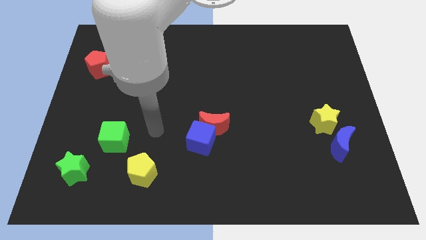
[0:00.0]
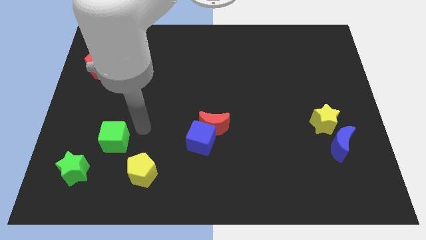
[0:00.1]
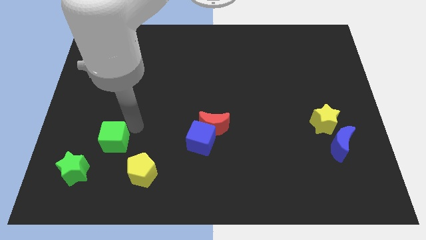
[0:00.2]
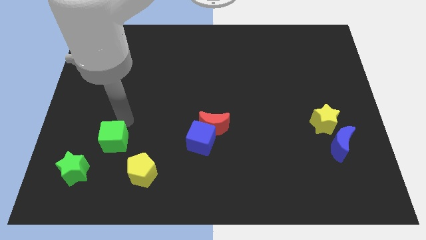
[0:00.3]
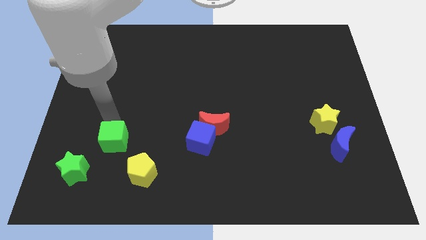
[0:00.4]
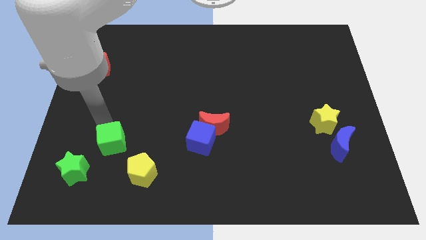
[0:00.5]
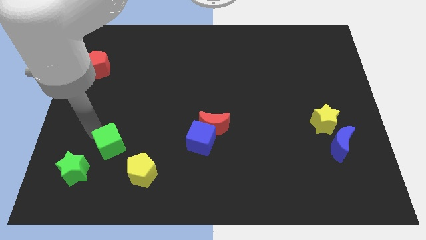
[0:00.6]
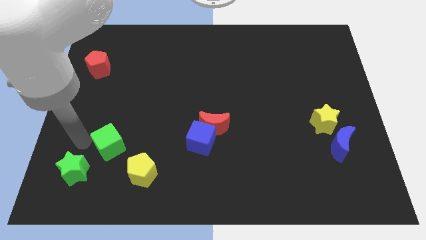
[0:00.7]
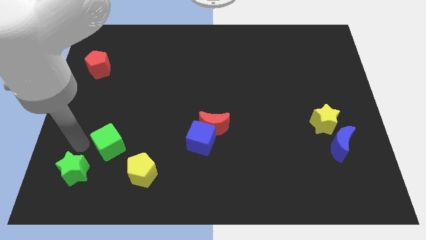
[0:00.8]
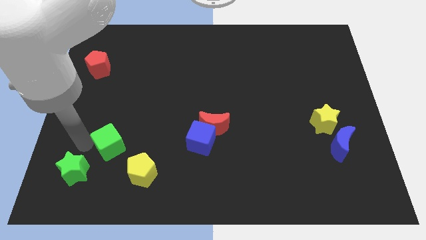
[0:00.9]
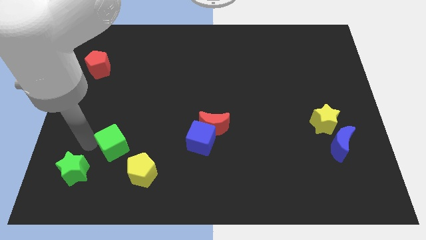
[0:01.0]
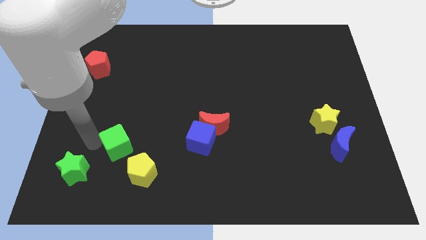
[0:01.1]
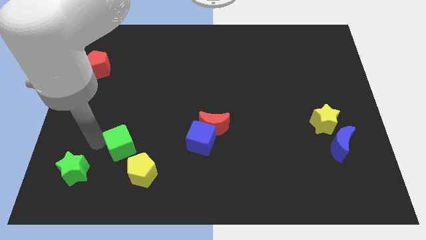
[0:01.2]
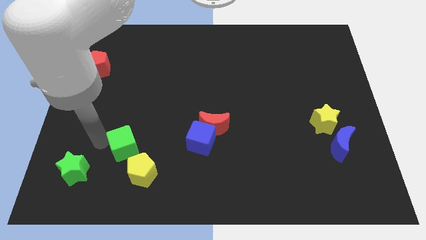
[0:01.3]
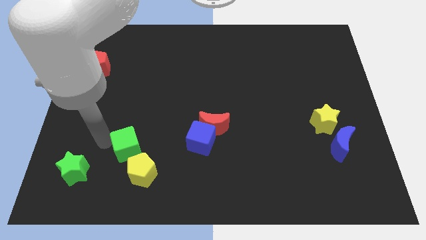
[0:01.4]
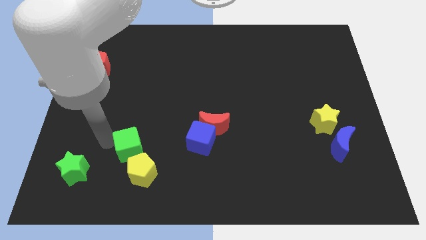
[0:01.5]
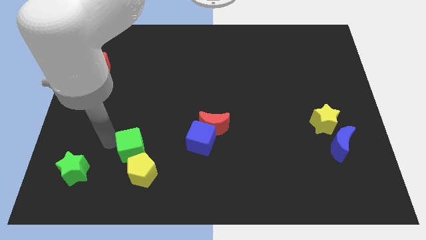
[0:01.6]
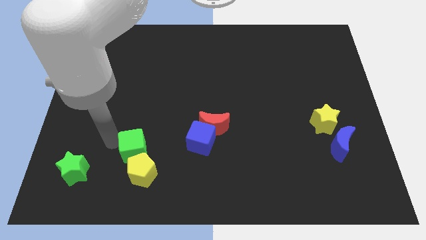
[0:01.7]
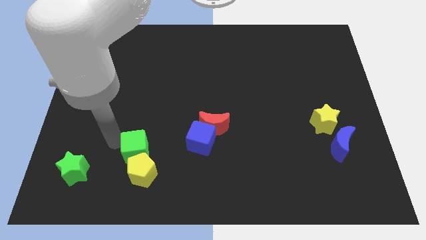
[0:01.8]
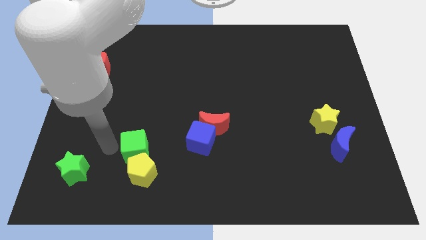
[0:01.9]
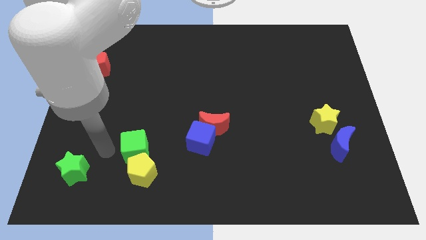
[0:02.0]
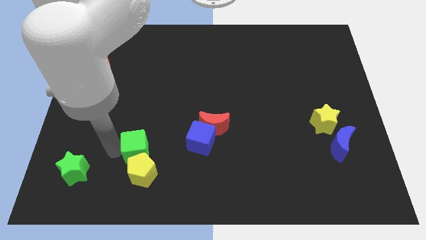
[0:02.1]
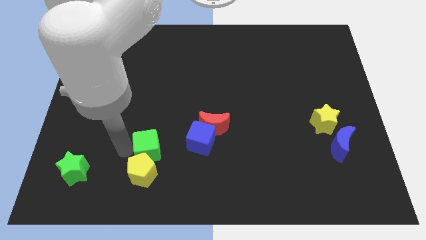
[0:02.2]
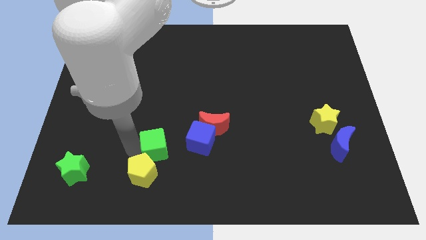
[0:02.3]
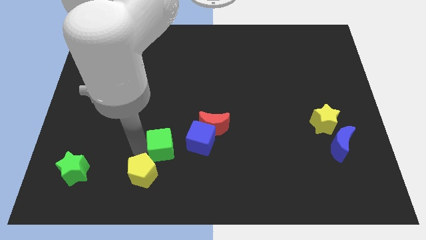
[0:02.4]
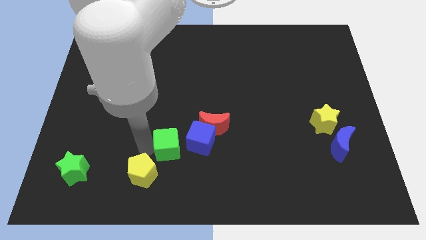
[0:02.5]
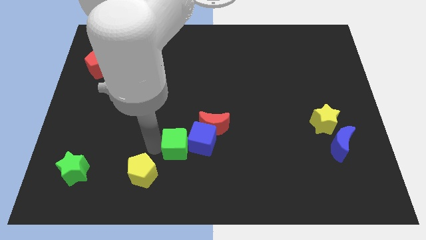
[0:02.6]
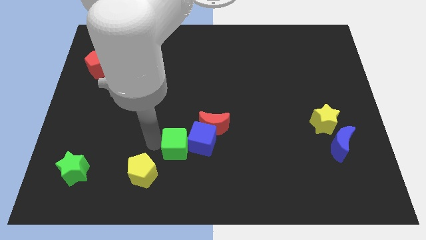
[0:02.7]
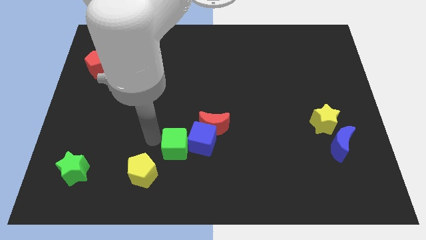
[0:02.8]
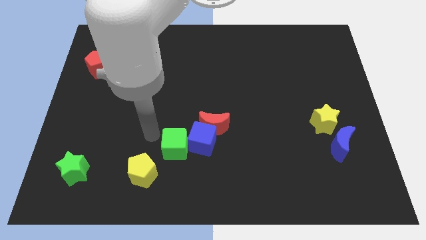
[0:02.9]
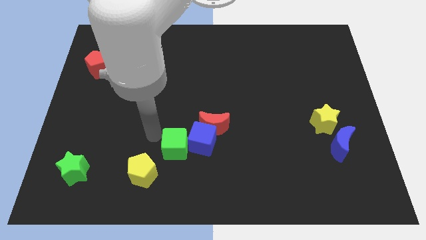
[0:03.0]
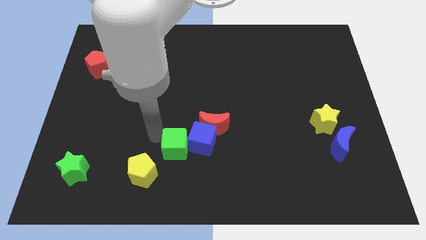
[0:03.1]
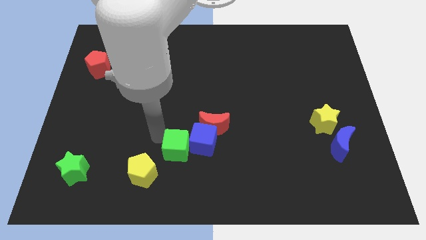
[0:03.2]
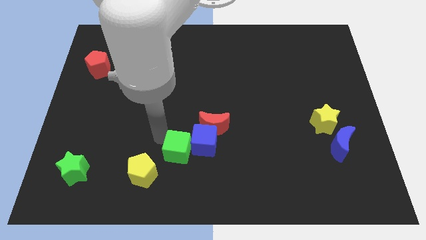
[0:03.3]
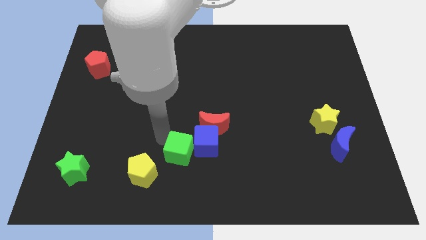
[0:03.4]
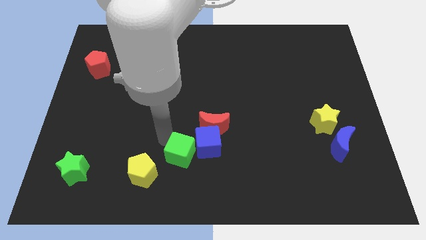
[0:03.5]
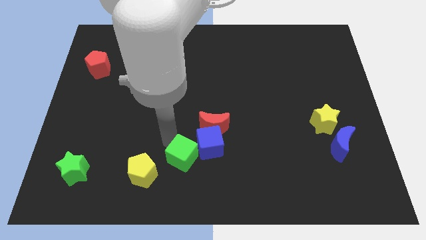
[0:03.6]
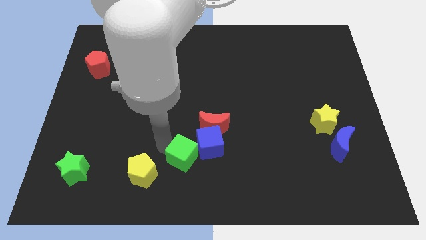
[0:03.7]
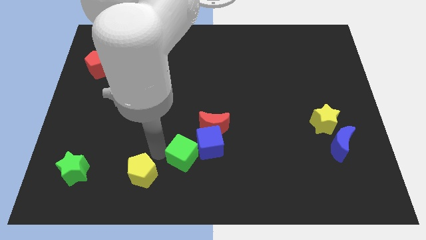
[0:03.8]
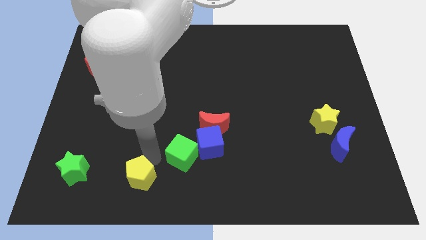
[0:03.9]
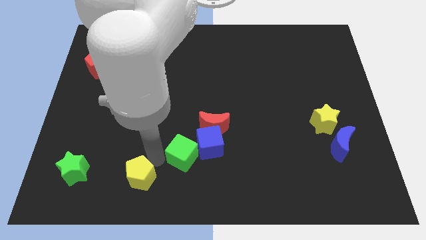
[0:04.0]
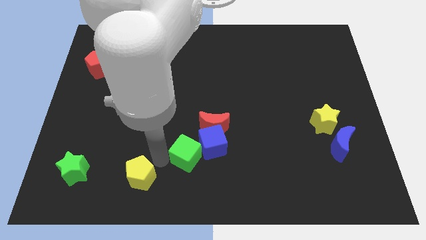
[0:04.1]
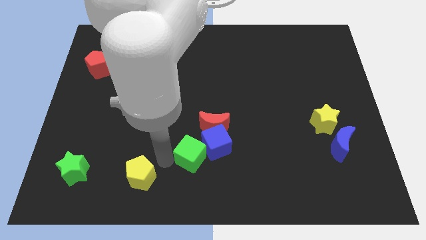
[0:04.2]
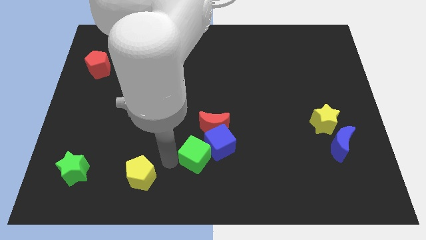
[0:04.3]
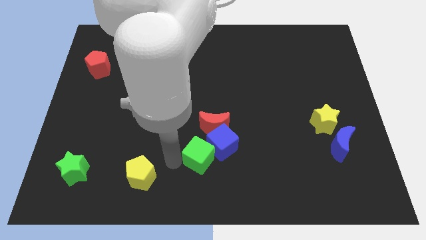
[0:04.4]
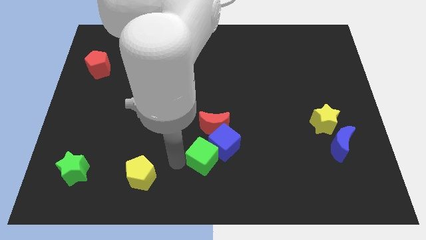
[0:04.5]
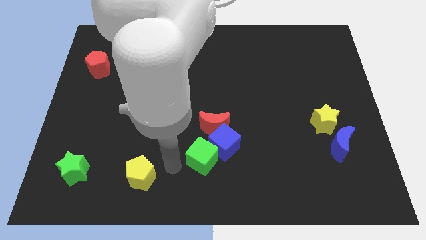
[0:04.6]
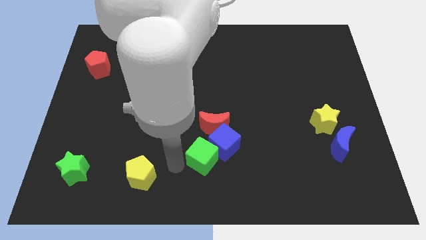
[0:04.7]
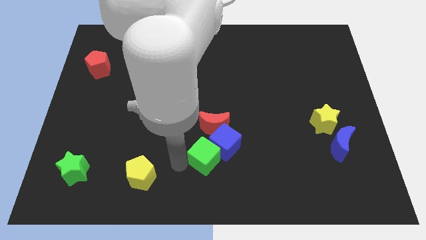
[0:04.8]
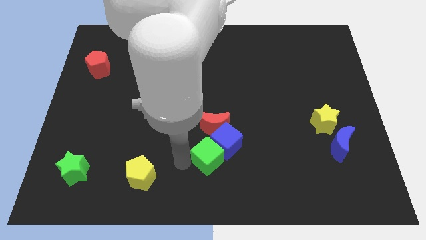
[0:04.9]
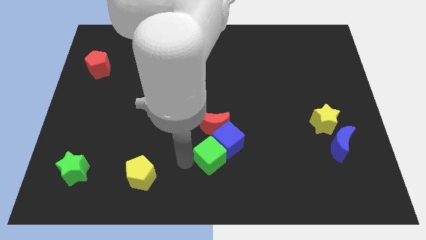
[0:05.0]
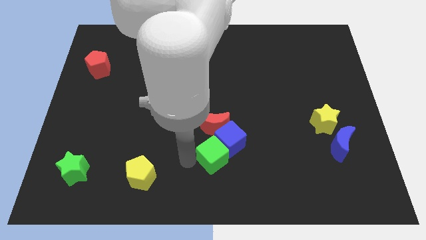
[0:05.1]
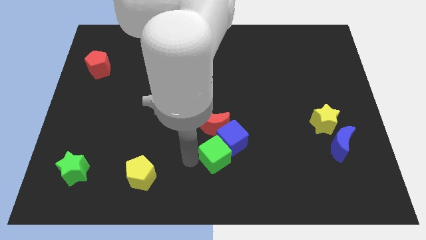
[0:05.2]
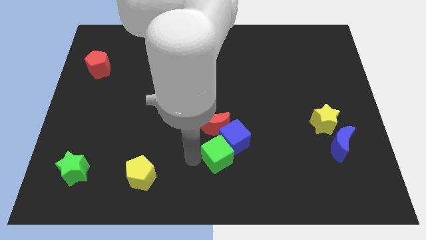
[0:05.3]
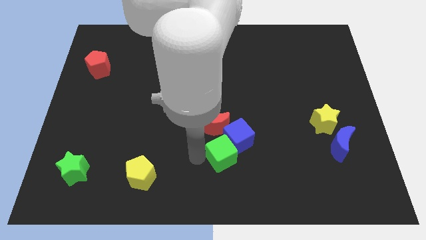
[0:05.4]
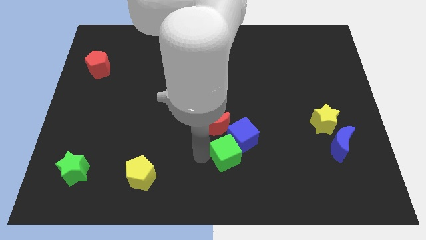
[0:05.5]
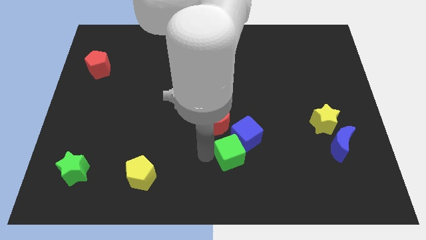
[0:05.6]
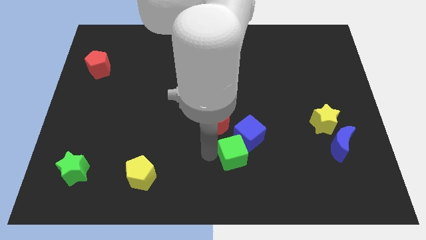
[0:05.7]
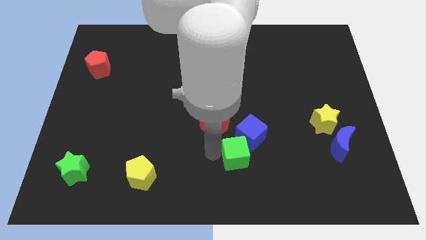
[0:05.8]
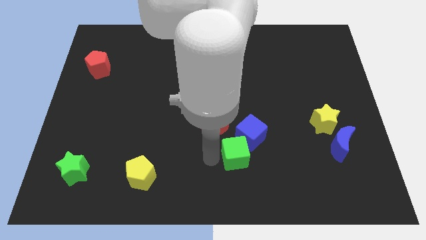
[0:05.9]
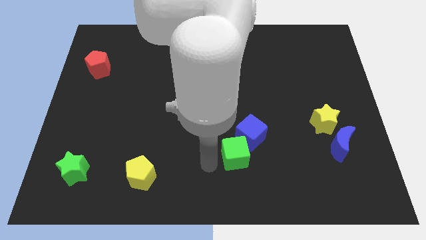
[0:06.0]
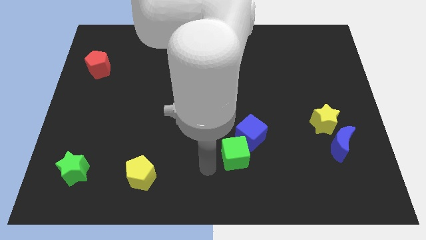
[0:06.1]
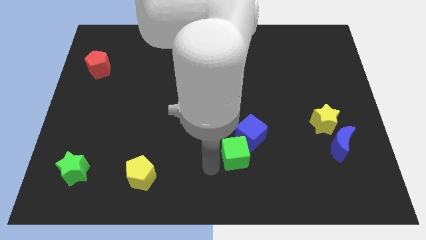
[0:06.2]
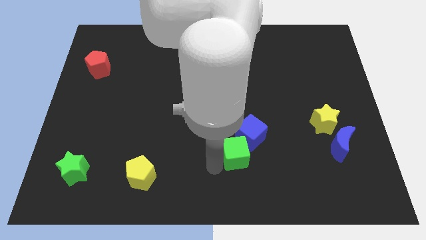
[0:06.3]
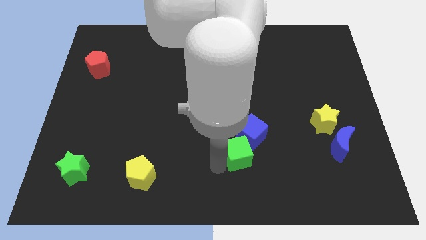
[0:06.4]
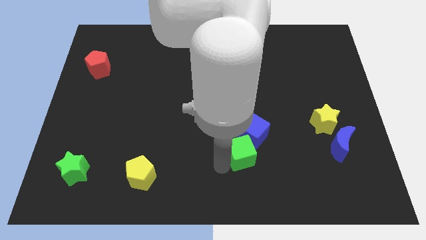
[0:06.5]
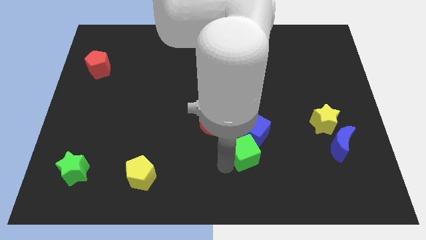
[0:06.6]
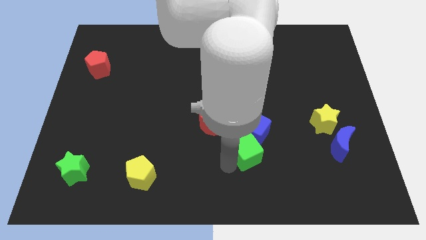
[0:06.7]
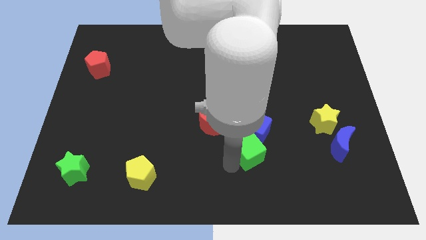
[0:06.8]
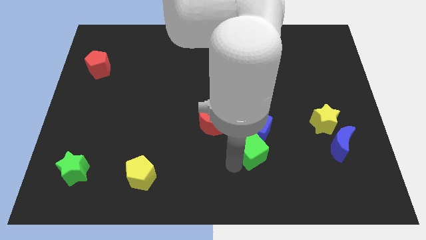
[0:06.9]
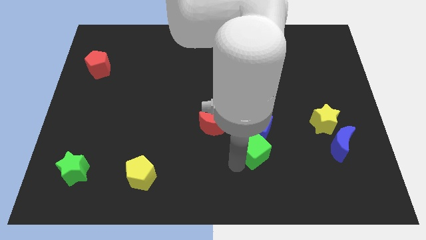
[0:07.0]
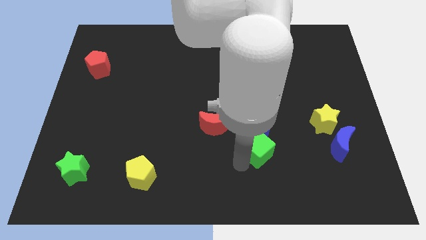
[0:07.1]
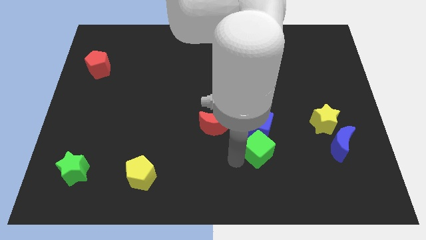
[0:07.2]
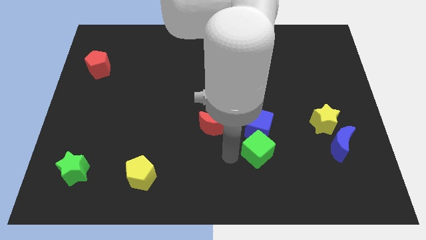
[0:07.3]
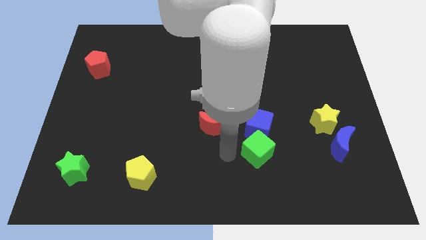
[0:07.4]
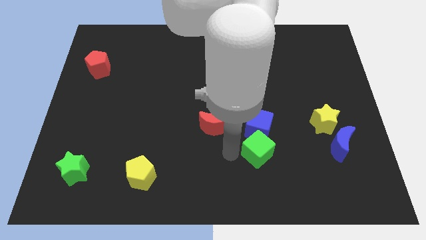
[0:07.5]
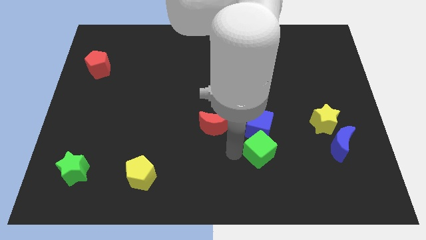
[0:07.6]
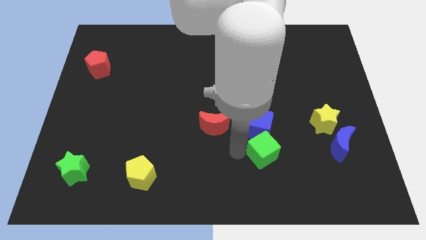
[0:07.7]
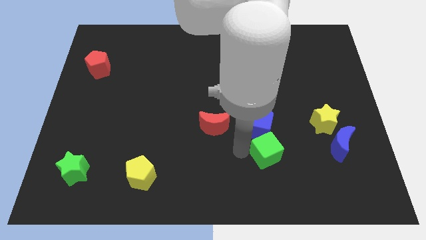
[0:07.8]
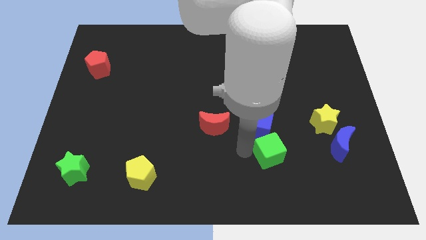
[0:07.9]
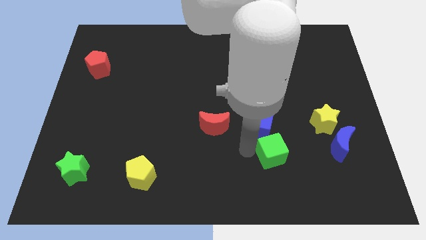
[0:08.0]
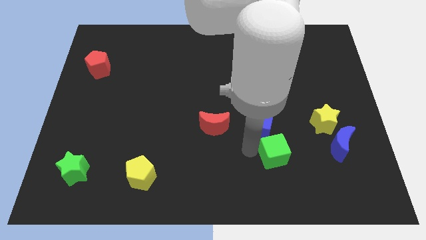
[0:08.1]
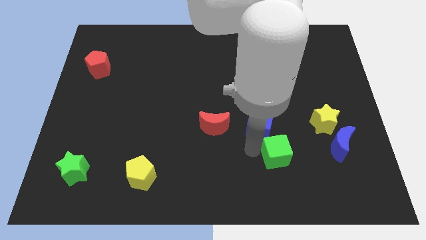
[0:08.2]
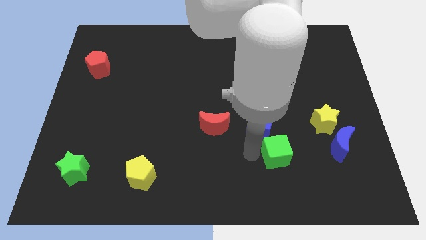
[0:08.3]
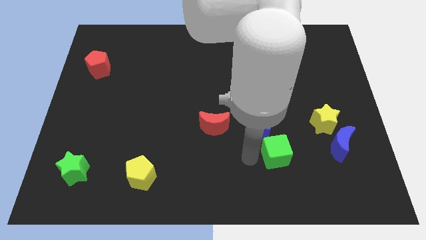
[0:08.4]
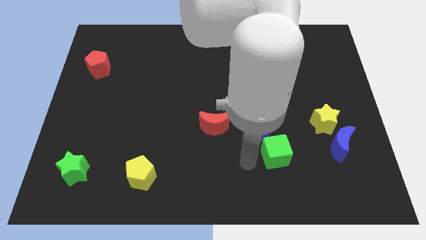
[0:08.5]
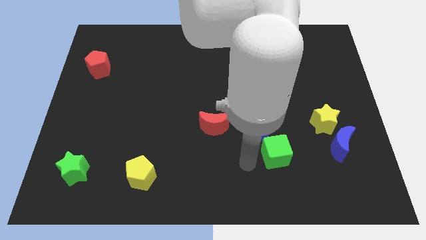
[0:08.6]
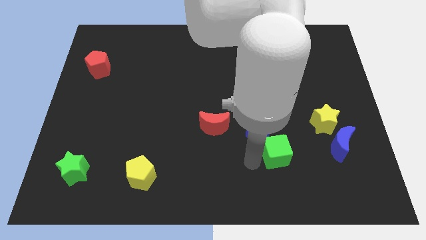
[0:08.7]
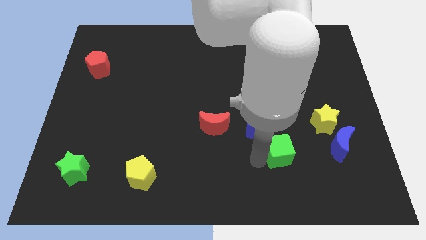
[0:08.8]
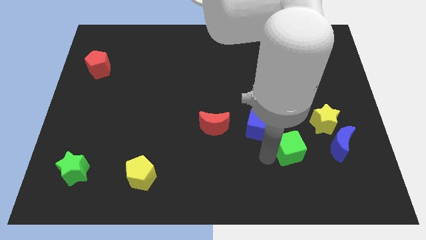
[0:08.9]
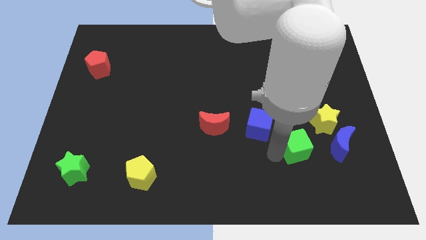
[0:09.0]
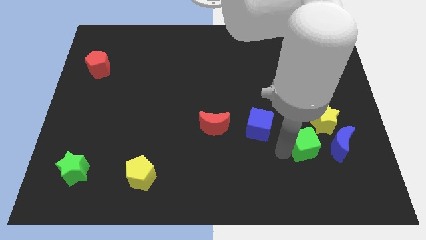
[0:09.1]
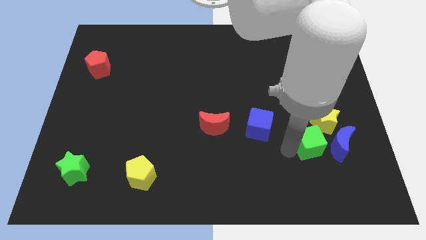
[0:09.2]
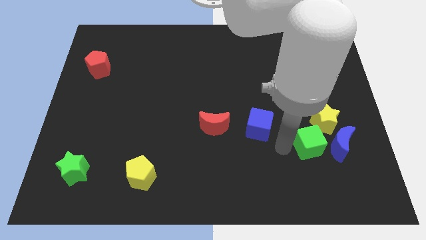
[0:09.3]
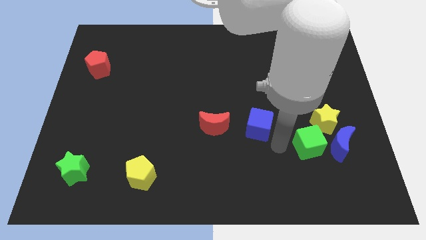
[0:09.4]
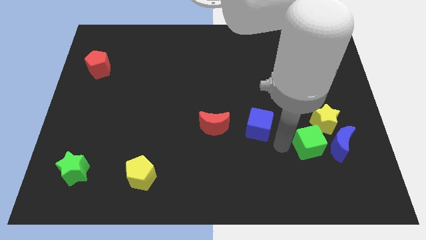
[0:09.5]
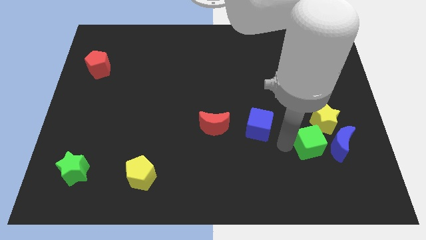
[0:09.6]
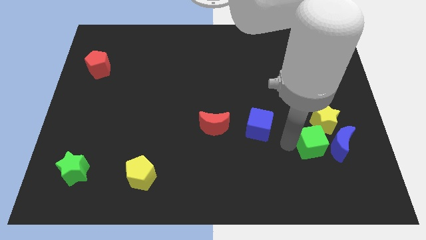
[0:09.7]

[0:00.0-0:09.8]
slide the green cube towards the blue moon
